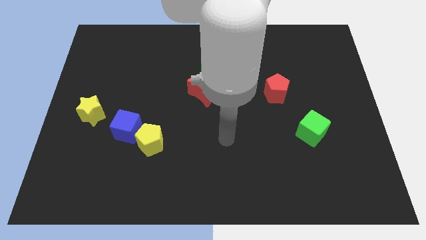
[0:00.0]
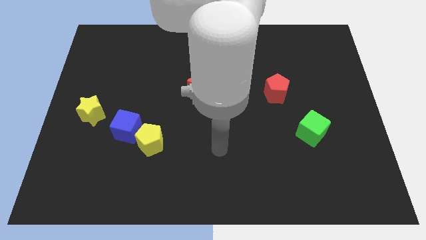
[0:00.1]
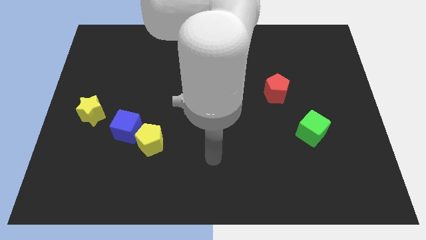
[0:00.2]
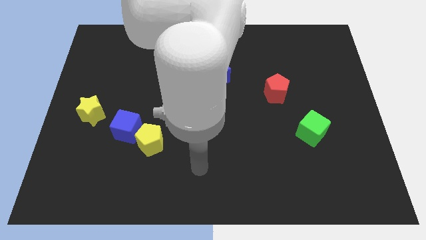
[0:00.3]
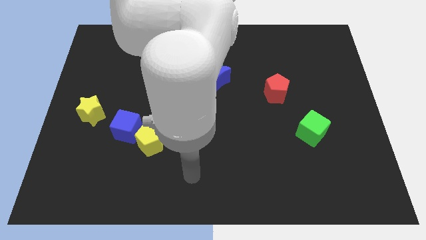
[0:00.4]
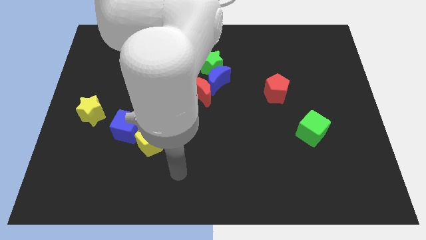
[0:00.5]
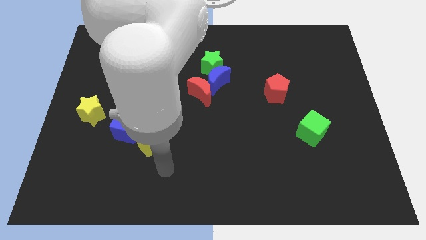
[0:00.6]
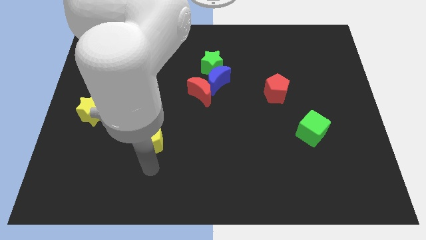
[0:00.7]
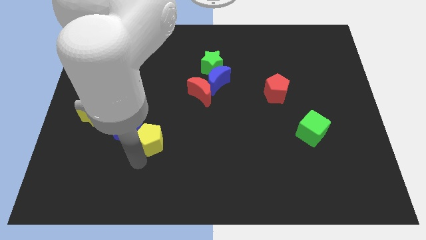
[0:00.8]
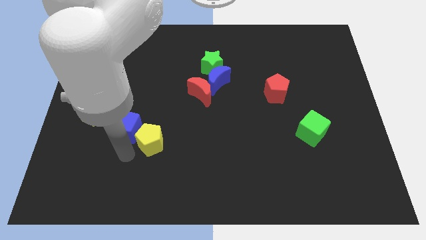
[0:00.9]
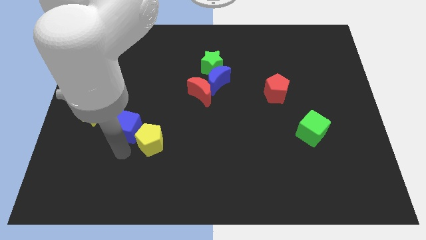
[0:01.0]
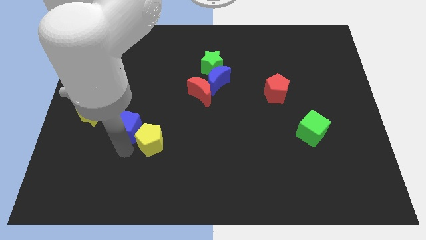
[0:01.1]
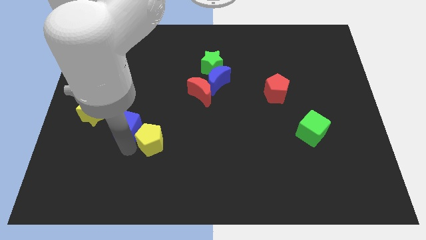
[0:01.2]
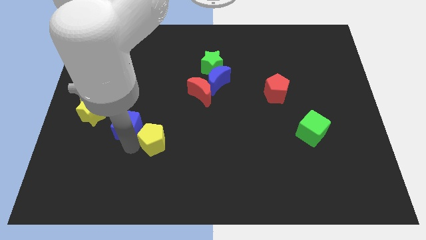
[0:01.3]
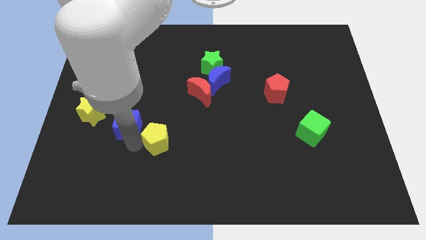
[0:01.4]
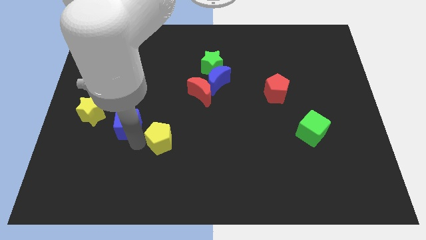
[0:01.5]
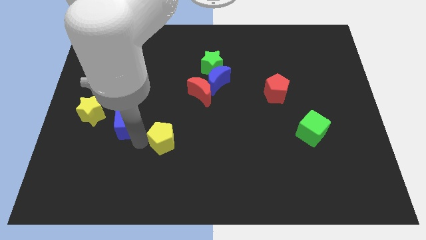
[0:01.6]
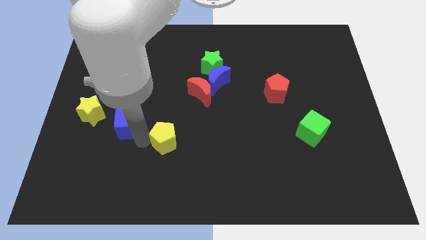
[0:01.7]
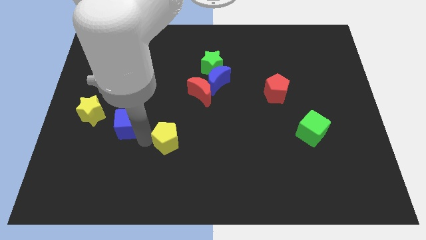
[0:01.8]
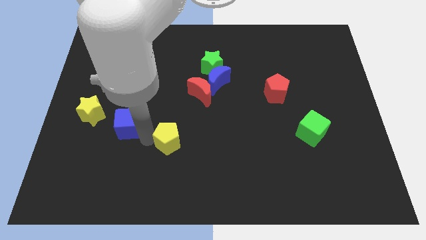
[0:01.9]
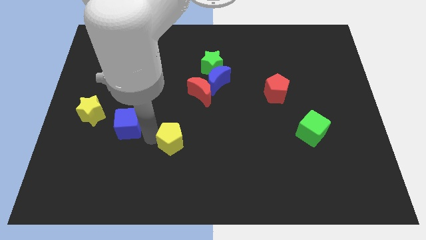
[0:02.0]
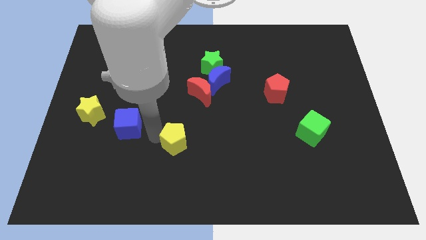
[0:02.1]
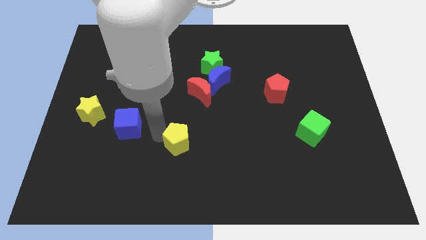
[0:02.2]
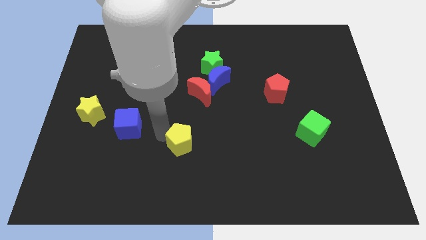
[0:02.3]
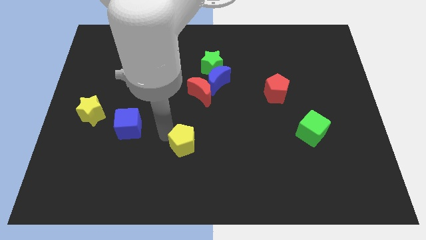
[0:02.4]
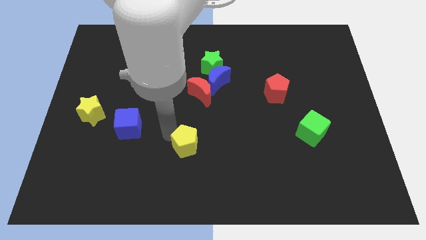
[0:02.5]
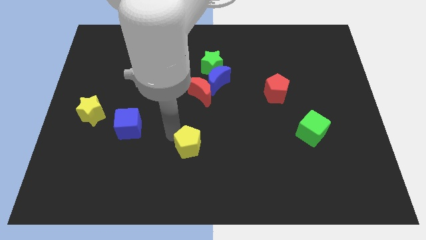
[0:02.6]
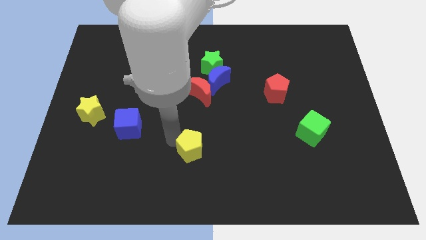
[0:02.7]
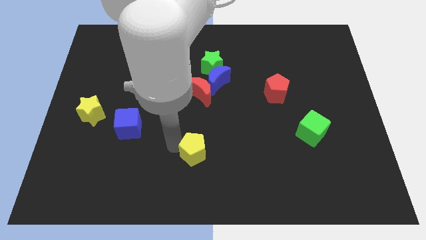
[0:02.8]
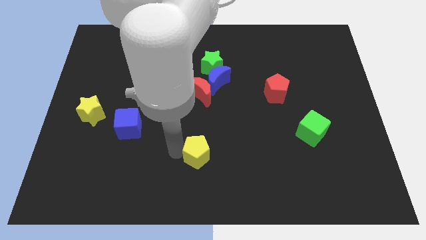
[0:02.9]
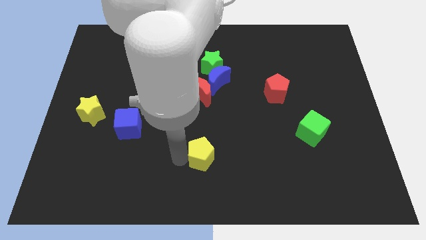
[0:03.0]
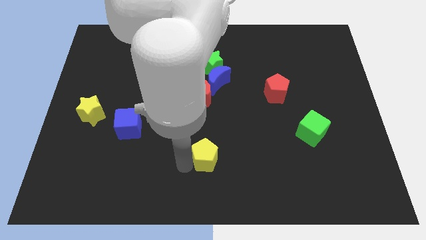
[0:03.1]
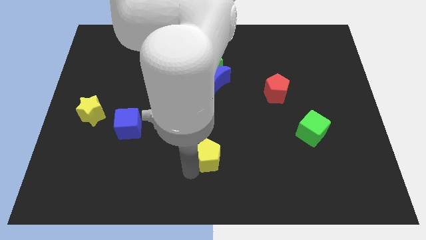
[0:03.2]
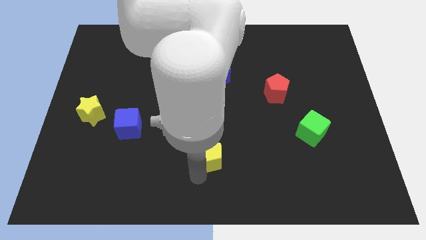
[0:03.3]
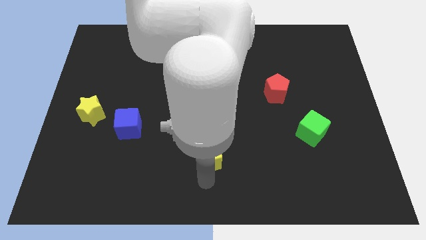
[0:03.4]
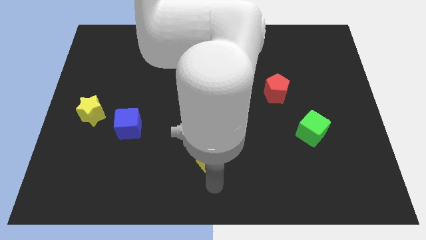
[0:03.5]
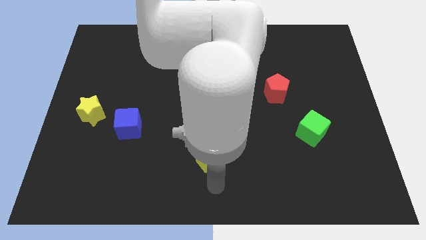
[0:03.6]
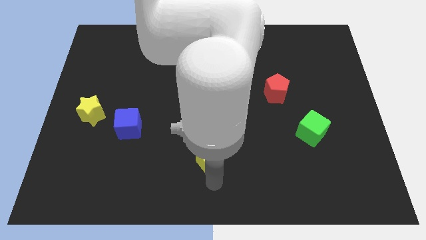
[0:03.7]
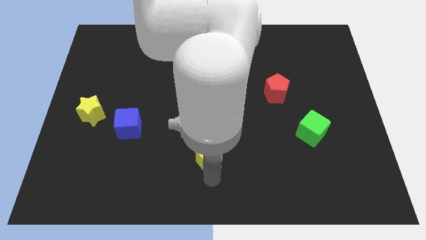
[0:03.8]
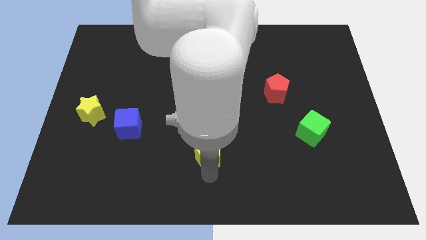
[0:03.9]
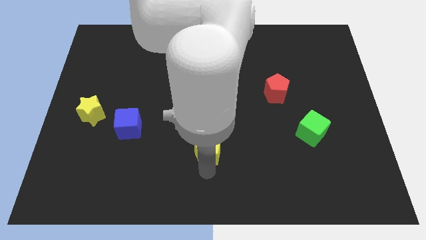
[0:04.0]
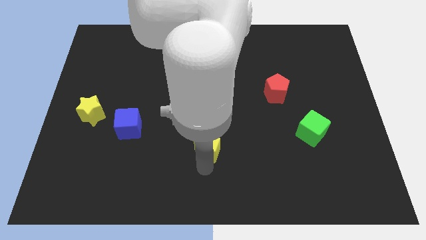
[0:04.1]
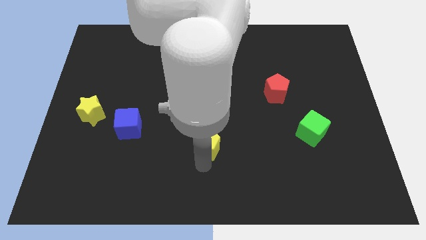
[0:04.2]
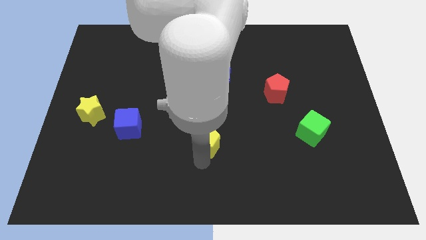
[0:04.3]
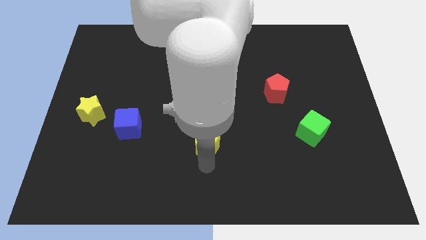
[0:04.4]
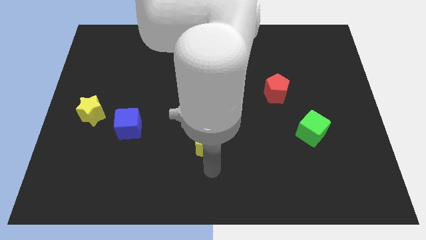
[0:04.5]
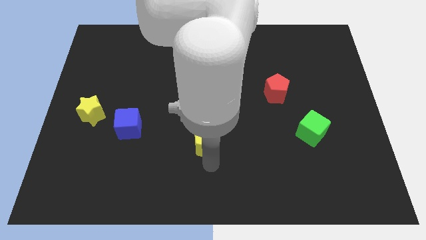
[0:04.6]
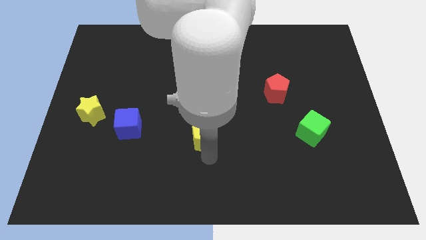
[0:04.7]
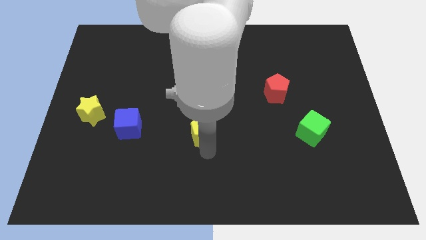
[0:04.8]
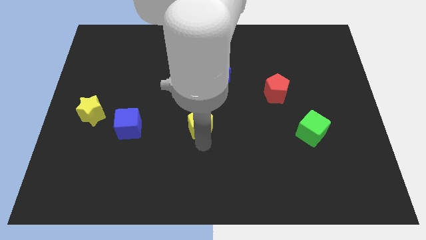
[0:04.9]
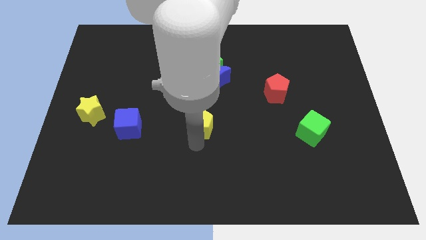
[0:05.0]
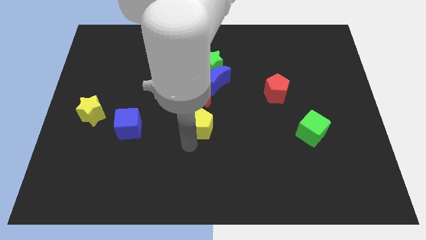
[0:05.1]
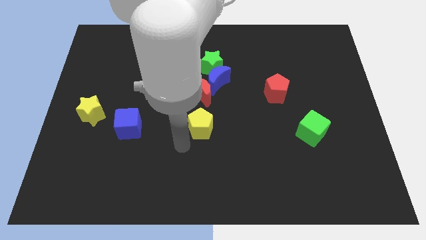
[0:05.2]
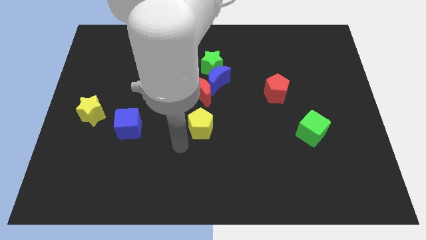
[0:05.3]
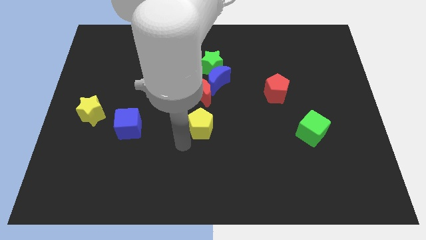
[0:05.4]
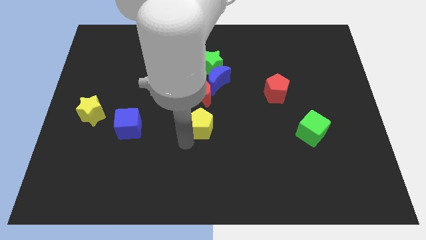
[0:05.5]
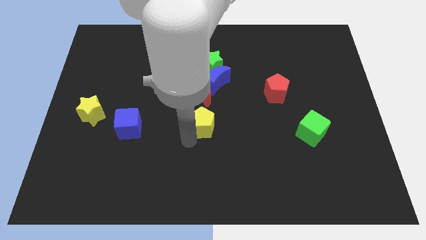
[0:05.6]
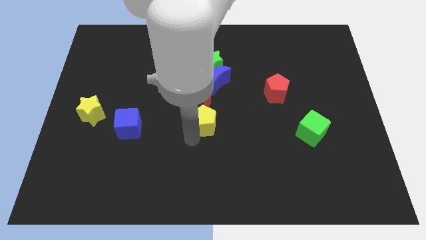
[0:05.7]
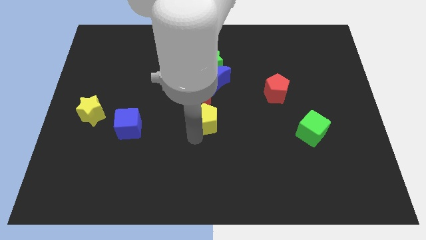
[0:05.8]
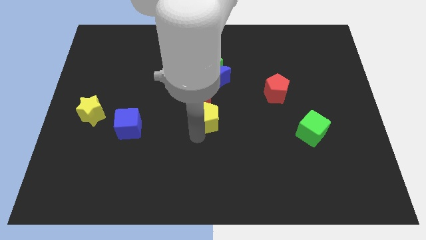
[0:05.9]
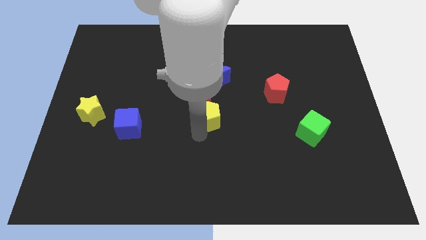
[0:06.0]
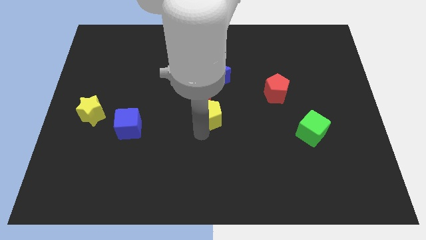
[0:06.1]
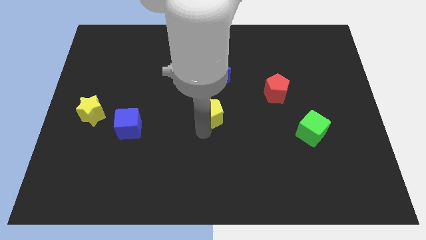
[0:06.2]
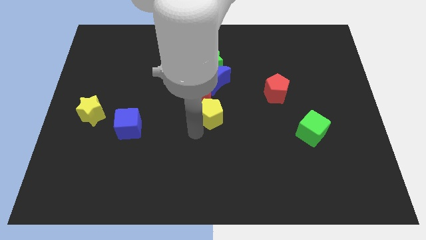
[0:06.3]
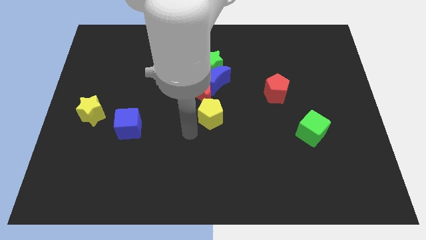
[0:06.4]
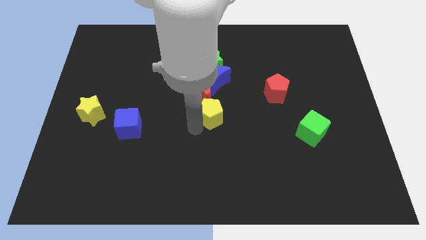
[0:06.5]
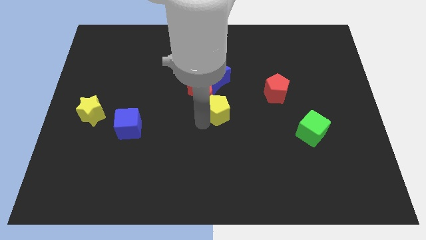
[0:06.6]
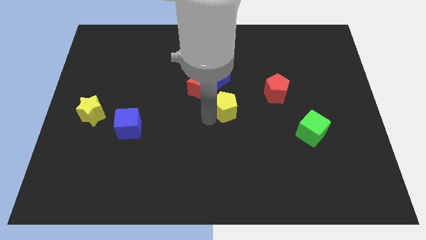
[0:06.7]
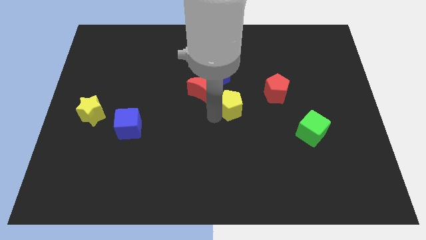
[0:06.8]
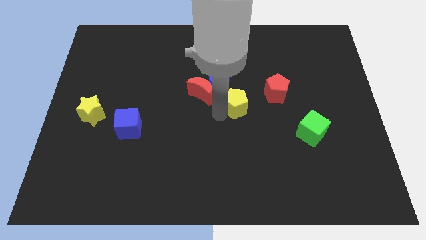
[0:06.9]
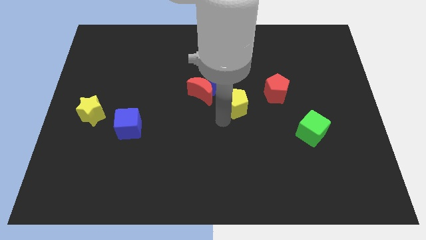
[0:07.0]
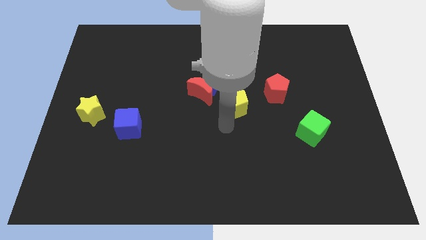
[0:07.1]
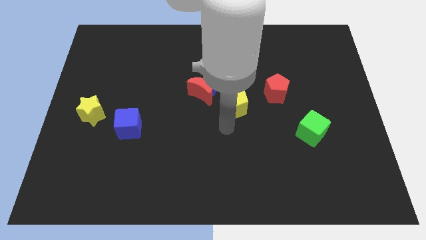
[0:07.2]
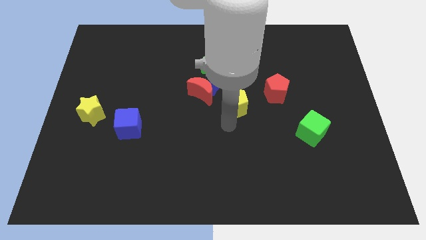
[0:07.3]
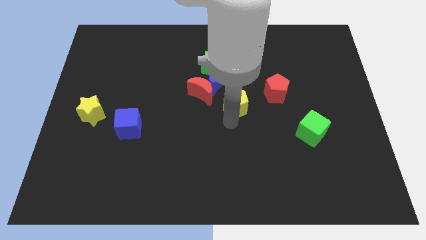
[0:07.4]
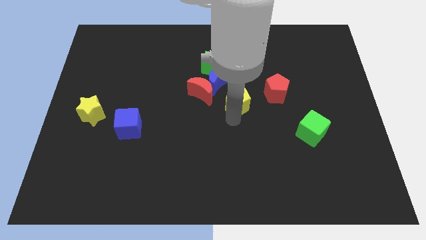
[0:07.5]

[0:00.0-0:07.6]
slide the yellow pentagon up and right

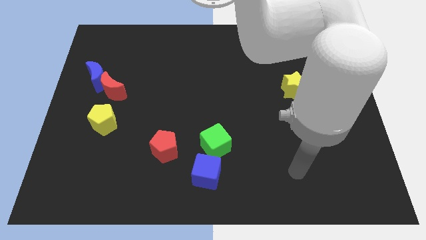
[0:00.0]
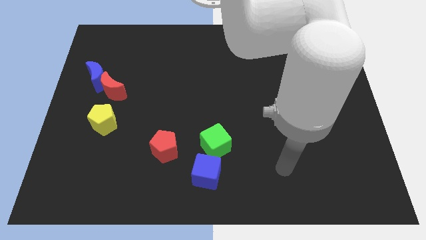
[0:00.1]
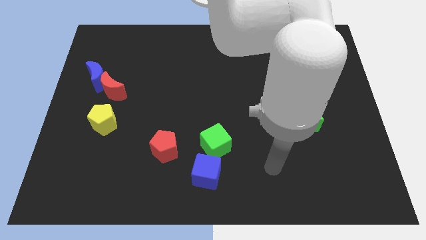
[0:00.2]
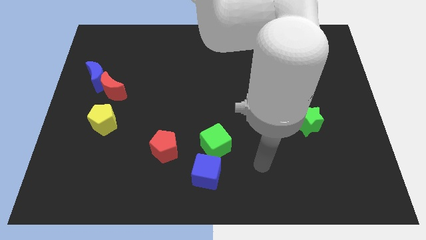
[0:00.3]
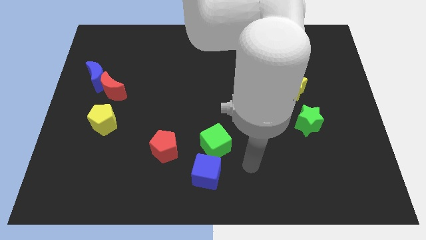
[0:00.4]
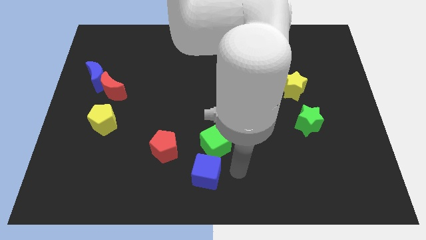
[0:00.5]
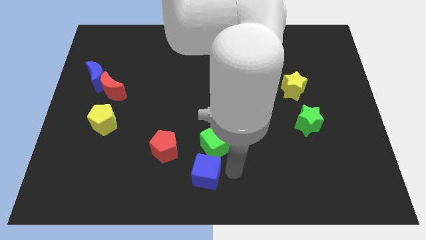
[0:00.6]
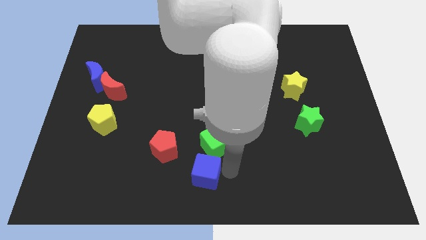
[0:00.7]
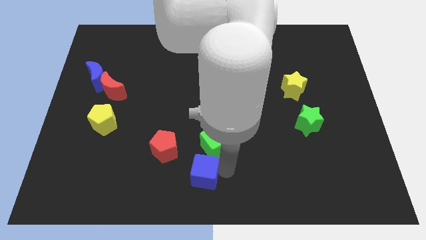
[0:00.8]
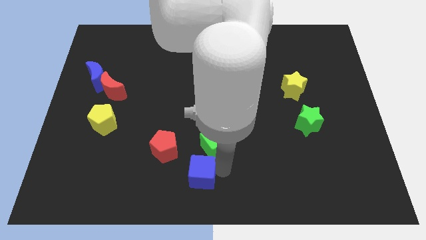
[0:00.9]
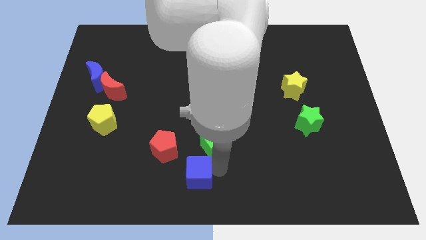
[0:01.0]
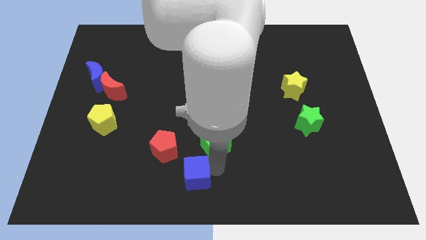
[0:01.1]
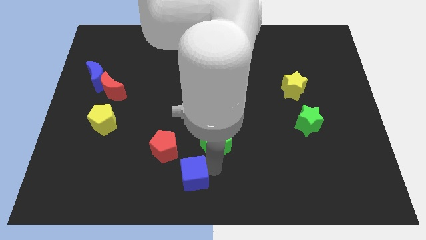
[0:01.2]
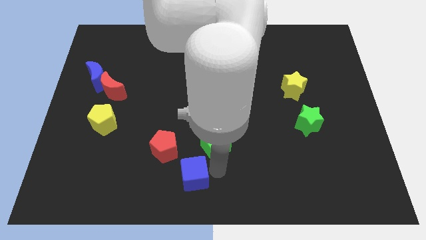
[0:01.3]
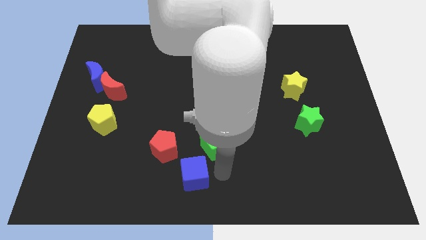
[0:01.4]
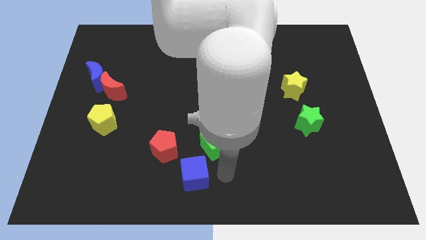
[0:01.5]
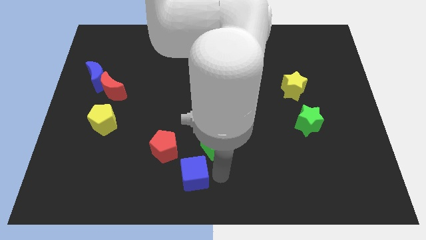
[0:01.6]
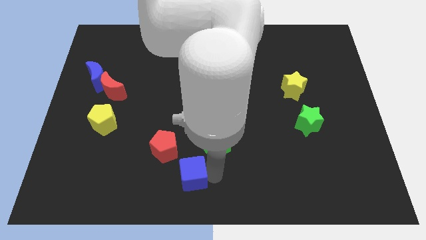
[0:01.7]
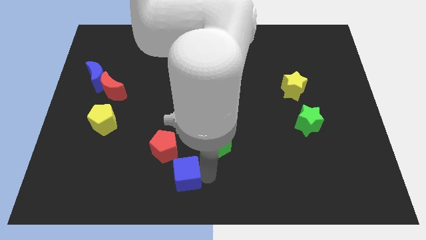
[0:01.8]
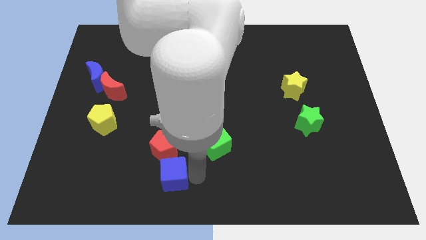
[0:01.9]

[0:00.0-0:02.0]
push the blue cube to the left a little bit
